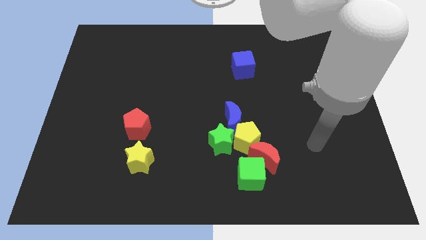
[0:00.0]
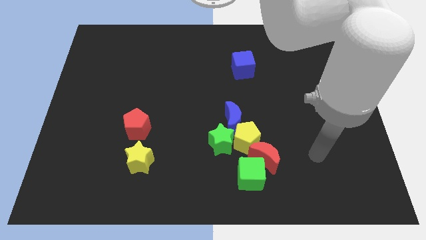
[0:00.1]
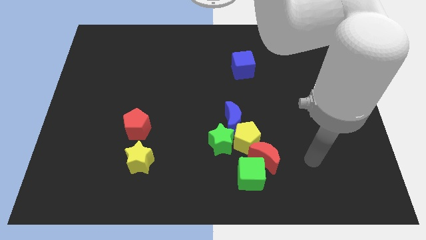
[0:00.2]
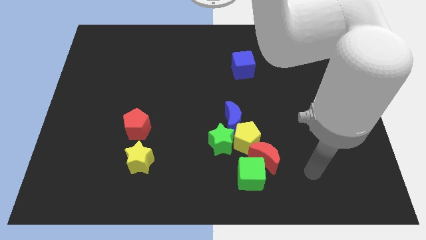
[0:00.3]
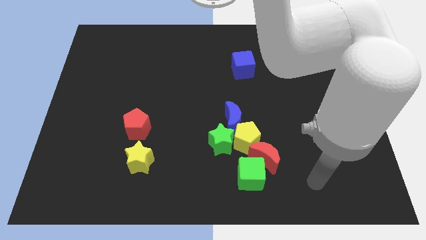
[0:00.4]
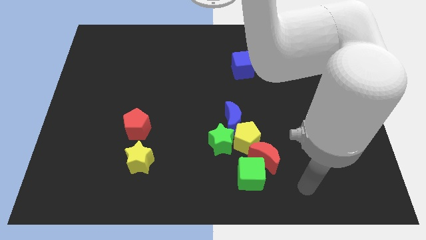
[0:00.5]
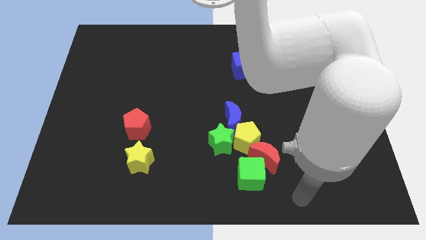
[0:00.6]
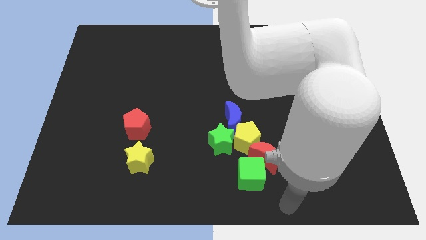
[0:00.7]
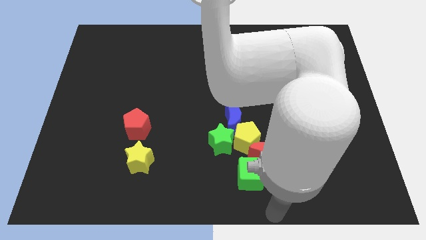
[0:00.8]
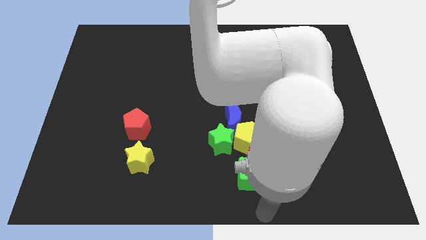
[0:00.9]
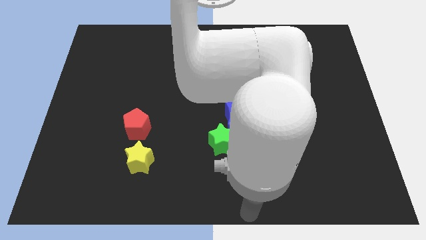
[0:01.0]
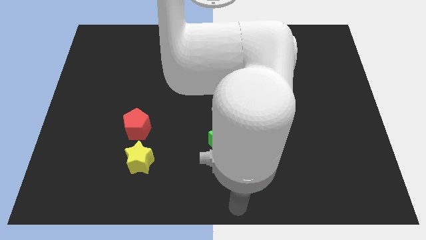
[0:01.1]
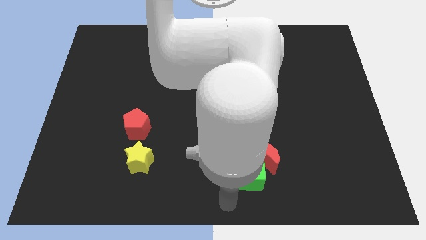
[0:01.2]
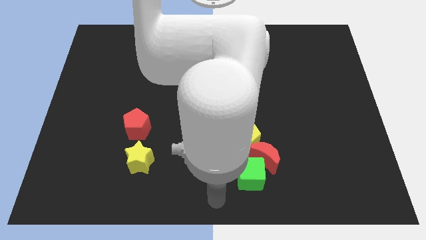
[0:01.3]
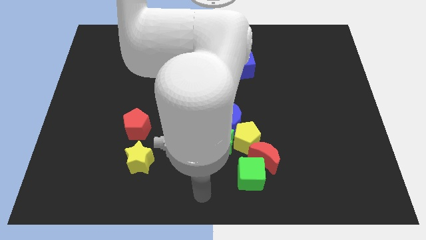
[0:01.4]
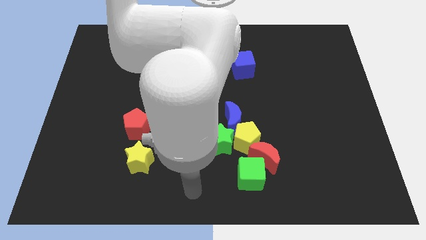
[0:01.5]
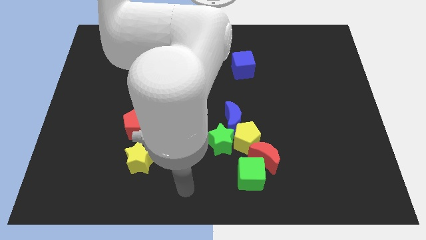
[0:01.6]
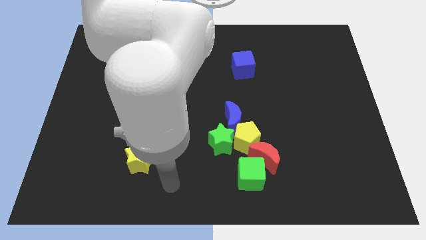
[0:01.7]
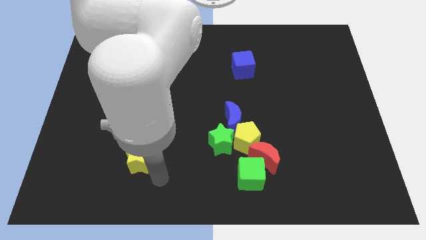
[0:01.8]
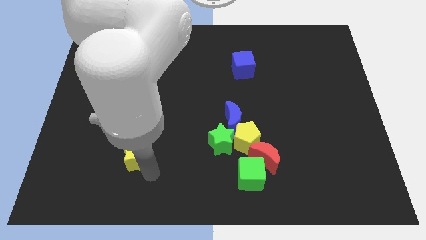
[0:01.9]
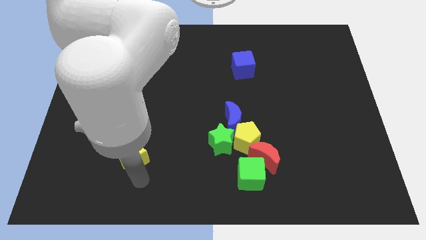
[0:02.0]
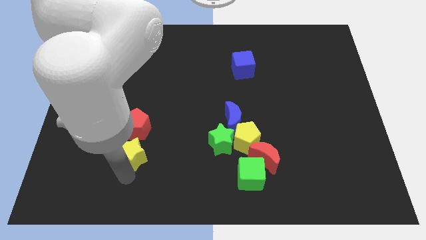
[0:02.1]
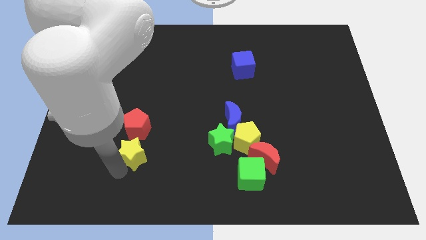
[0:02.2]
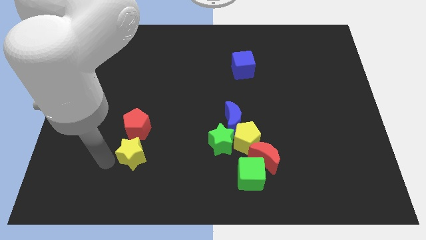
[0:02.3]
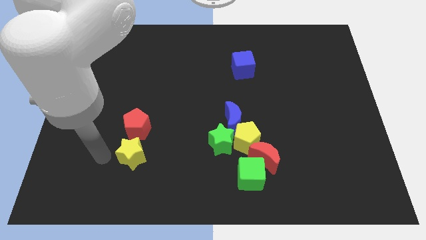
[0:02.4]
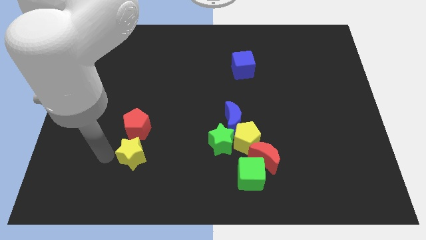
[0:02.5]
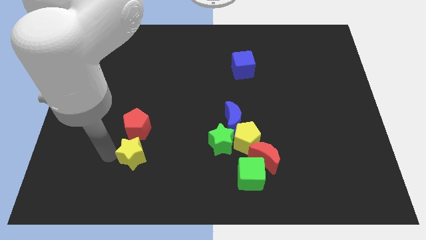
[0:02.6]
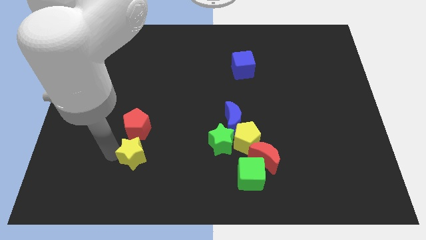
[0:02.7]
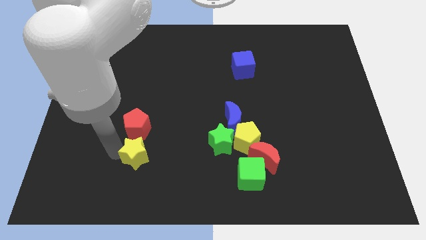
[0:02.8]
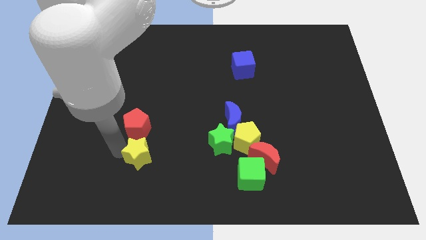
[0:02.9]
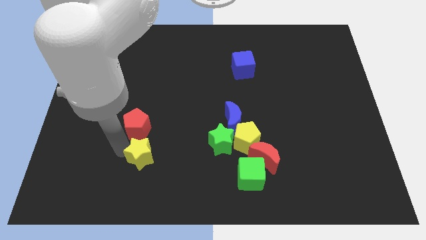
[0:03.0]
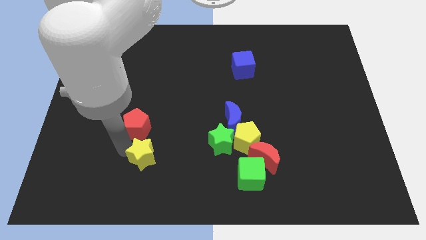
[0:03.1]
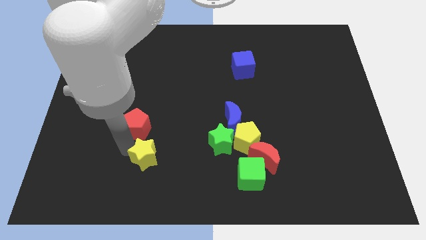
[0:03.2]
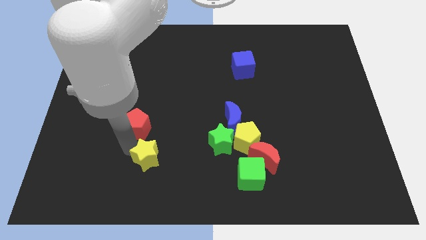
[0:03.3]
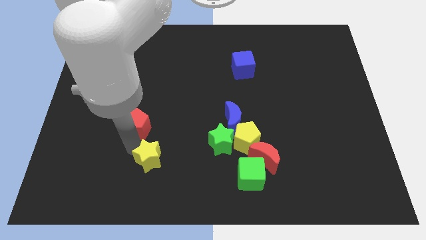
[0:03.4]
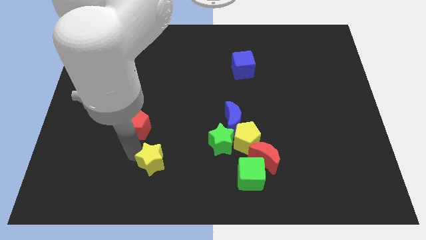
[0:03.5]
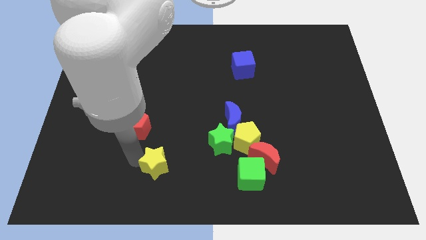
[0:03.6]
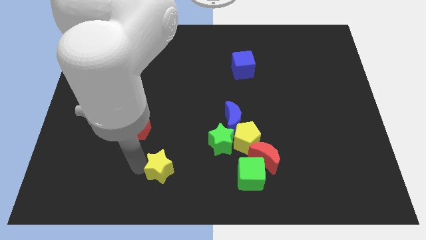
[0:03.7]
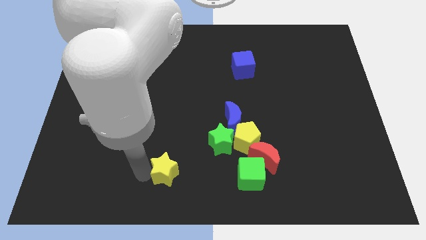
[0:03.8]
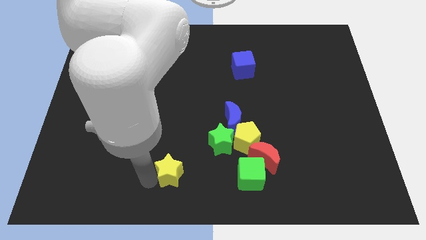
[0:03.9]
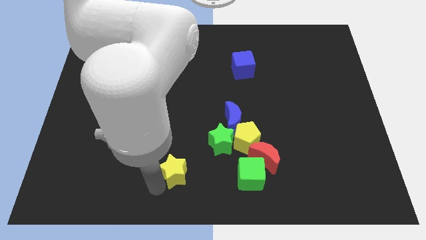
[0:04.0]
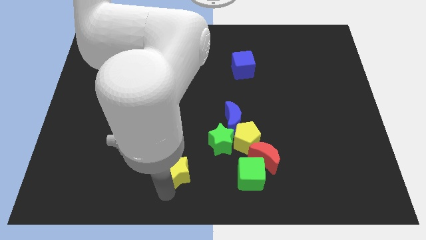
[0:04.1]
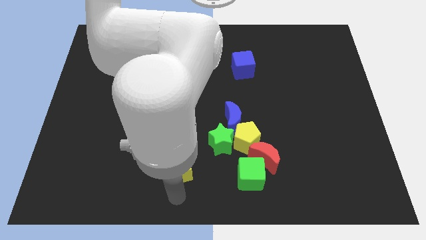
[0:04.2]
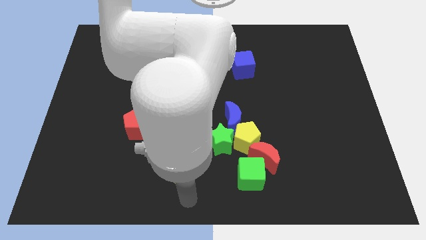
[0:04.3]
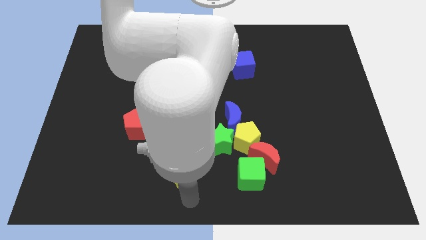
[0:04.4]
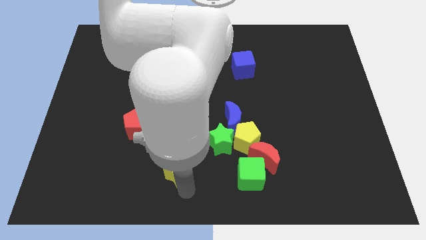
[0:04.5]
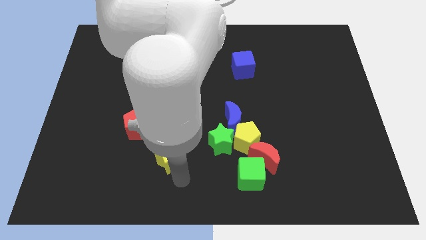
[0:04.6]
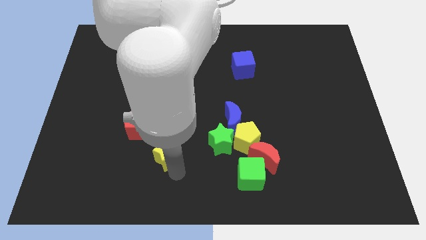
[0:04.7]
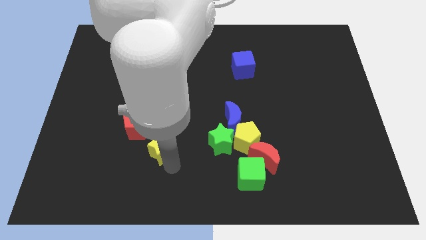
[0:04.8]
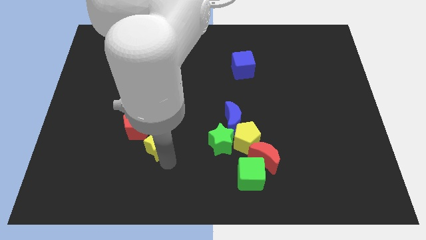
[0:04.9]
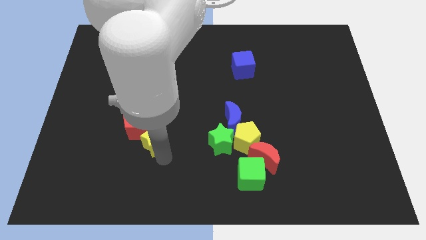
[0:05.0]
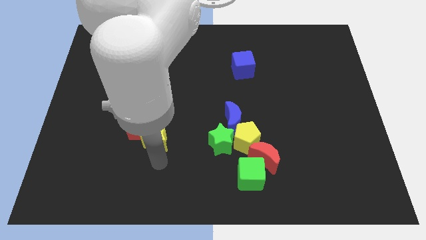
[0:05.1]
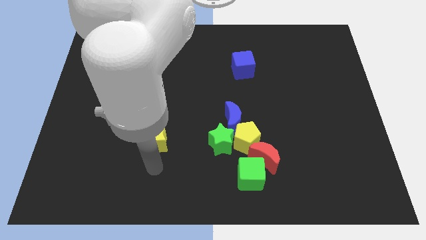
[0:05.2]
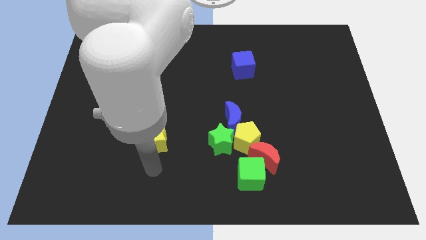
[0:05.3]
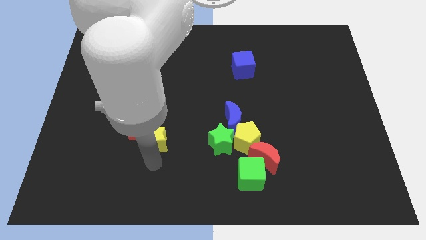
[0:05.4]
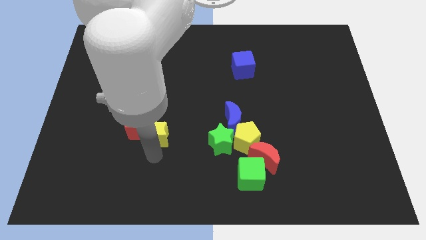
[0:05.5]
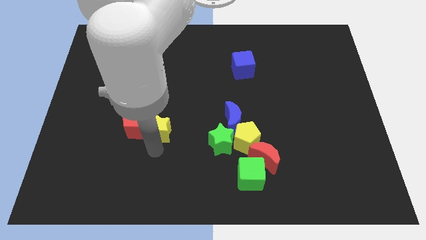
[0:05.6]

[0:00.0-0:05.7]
move the yellow star a bit upwards

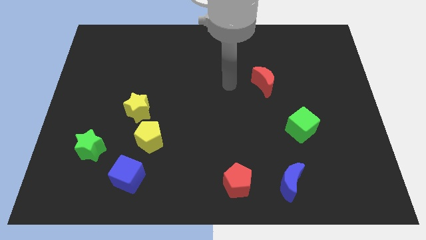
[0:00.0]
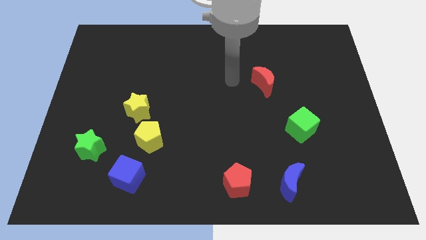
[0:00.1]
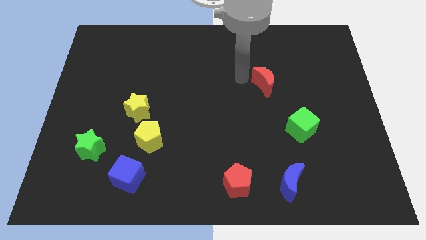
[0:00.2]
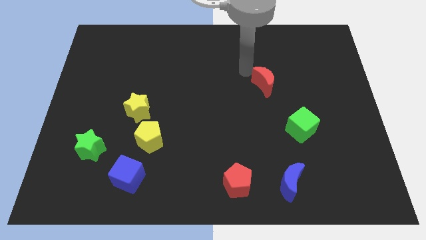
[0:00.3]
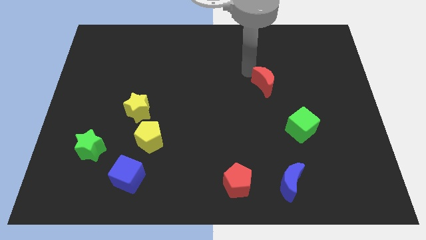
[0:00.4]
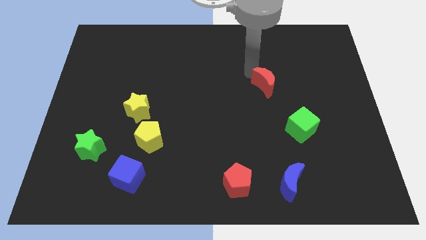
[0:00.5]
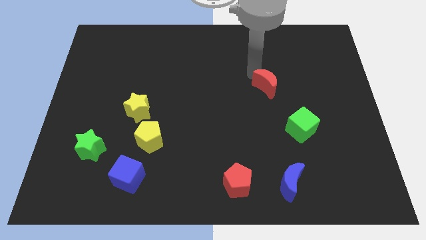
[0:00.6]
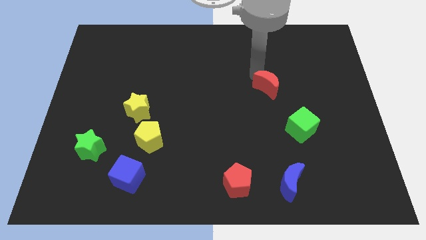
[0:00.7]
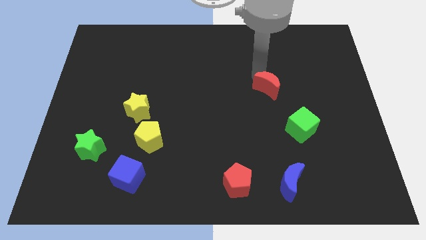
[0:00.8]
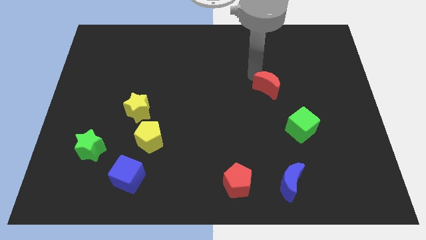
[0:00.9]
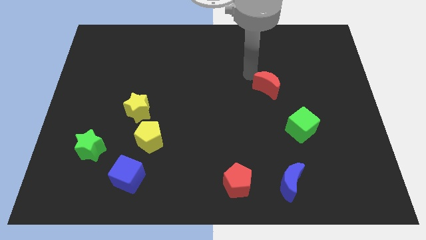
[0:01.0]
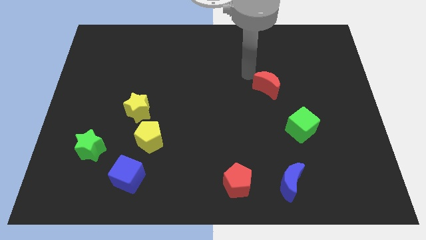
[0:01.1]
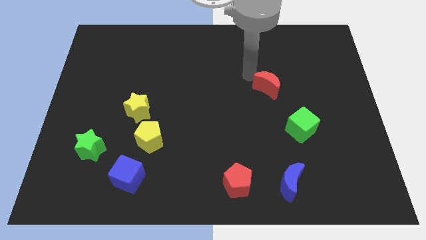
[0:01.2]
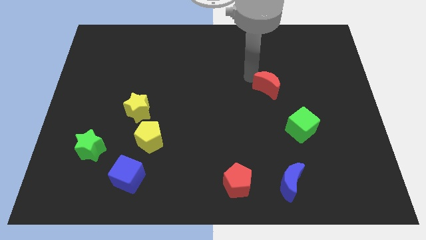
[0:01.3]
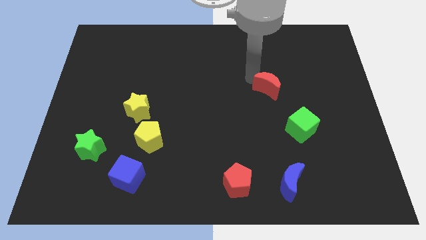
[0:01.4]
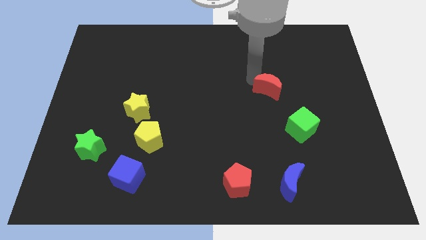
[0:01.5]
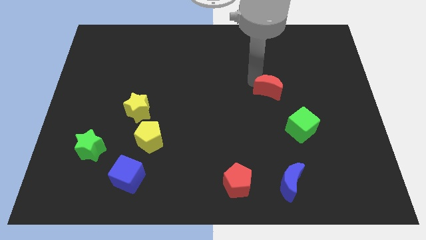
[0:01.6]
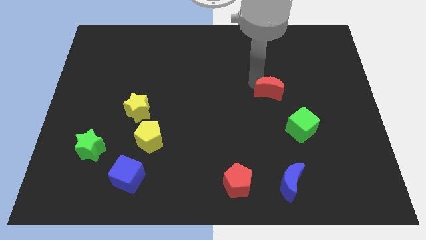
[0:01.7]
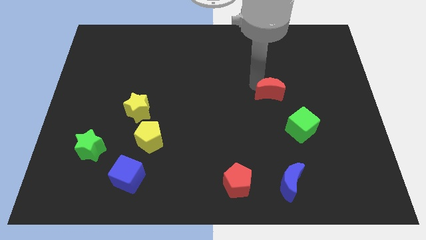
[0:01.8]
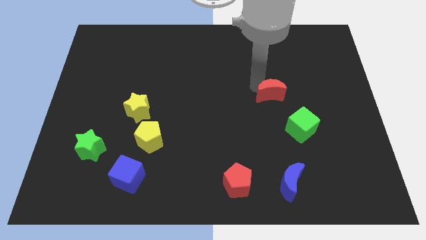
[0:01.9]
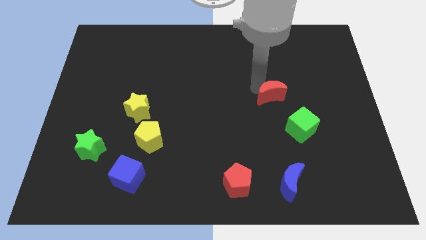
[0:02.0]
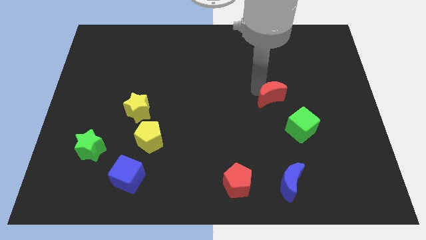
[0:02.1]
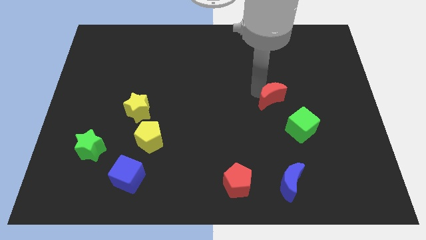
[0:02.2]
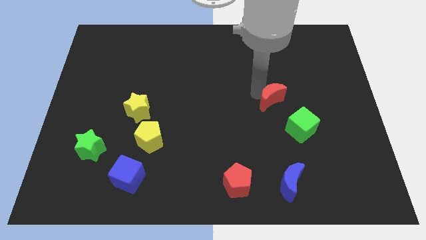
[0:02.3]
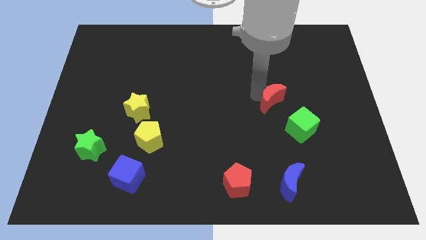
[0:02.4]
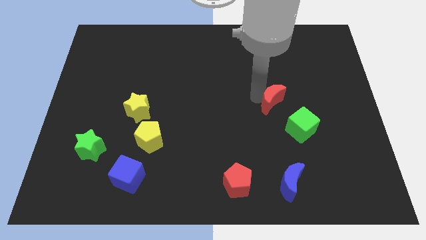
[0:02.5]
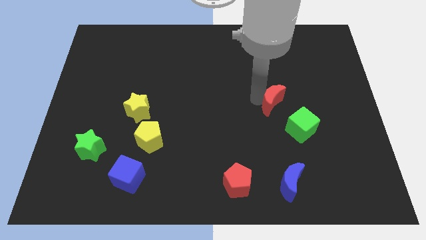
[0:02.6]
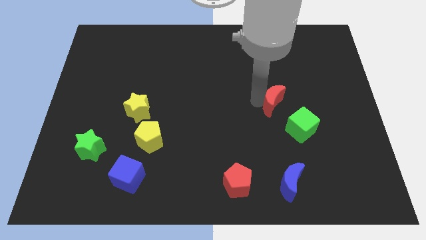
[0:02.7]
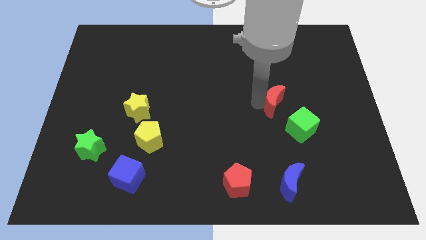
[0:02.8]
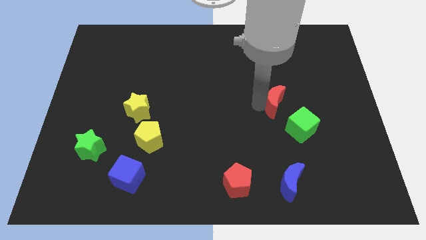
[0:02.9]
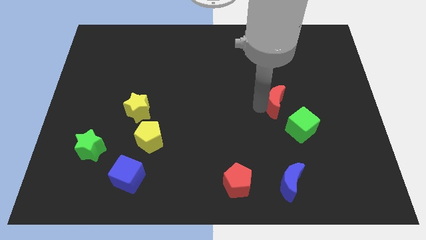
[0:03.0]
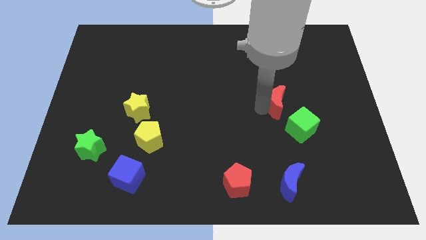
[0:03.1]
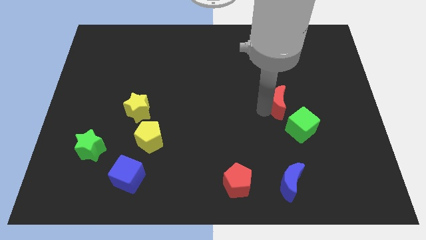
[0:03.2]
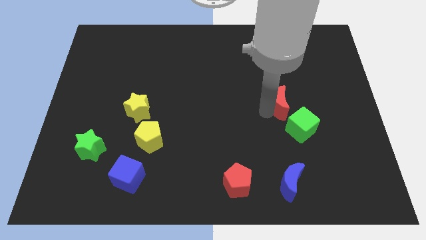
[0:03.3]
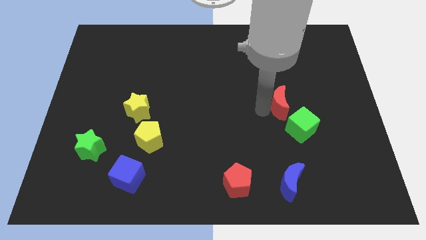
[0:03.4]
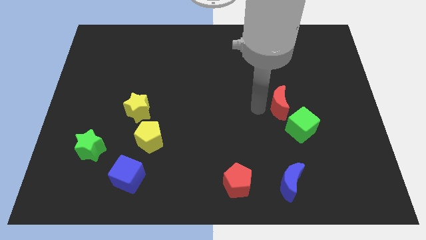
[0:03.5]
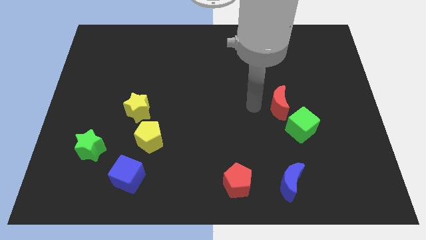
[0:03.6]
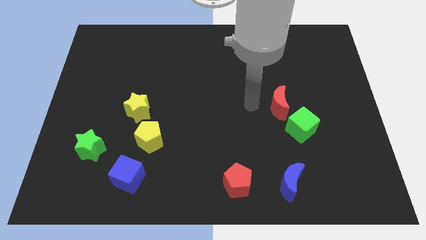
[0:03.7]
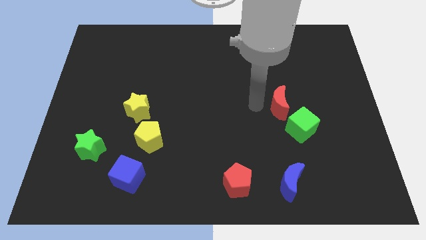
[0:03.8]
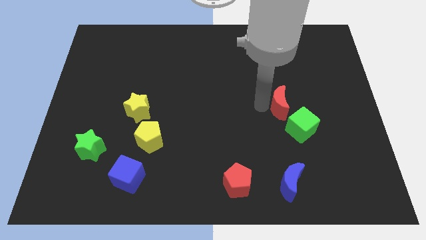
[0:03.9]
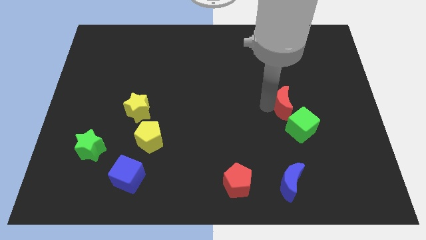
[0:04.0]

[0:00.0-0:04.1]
slightly move the red moon downwards and to the right
